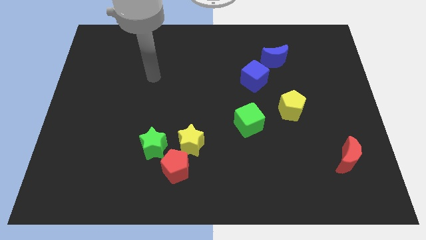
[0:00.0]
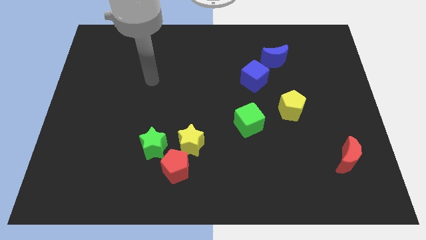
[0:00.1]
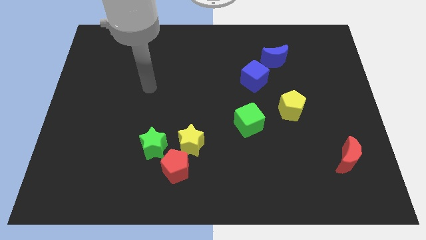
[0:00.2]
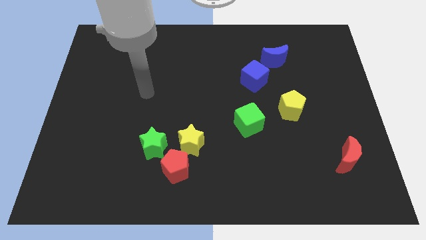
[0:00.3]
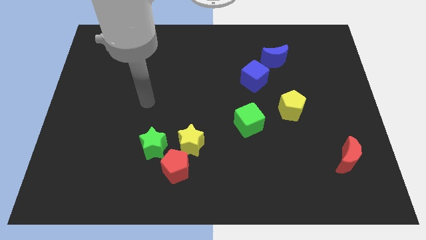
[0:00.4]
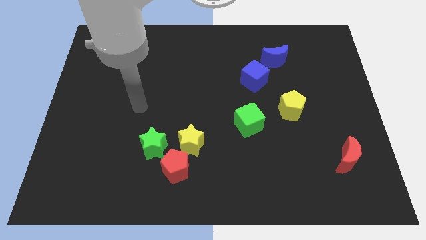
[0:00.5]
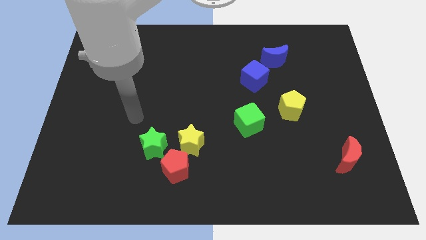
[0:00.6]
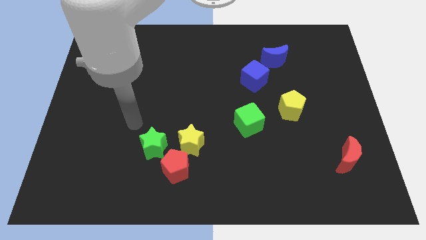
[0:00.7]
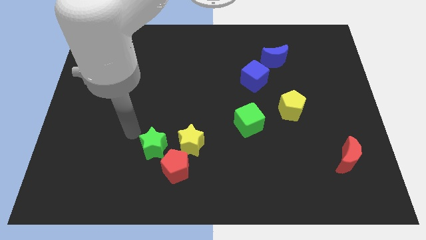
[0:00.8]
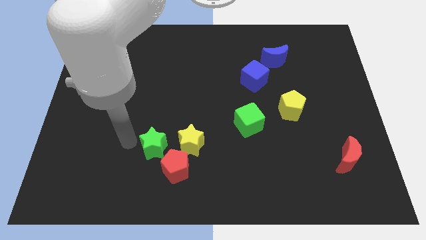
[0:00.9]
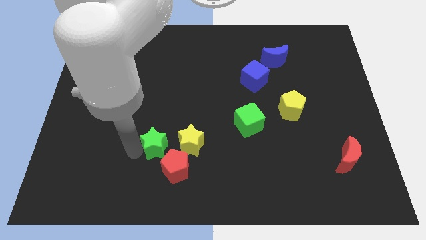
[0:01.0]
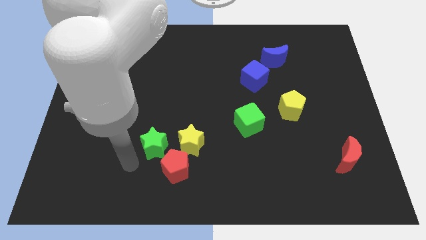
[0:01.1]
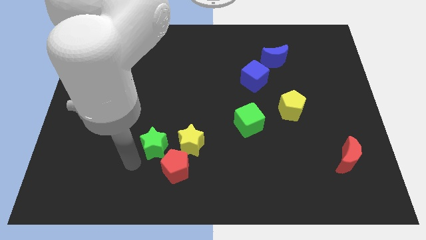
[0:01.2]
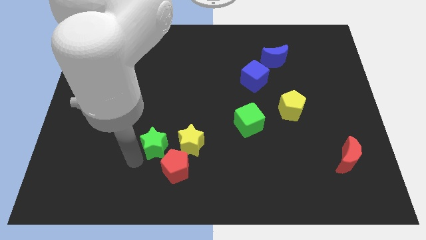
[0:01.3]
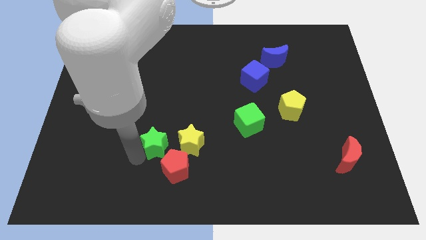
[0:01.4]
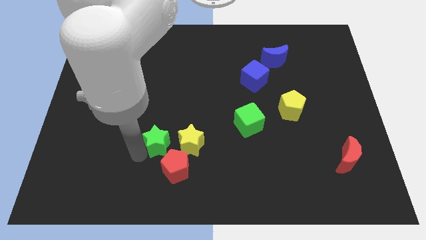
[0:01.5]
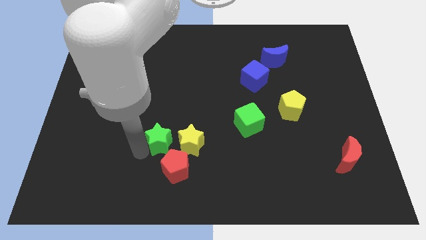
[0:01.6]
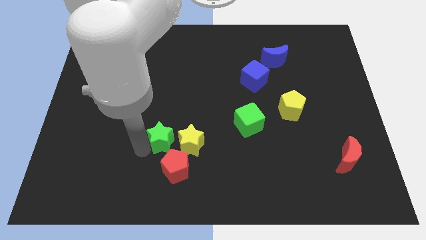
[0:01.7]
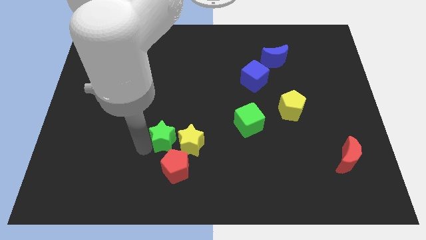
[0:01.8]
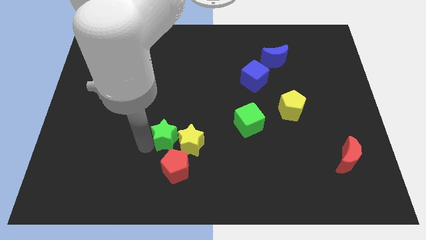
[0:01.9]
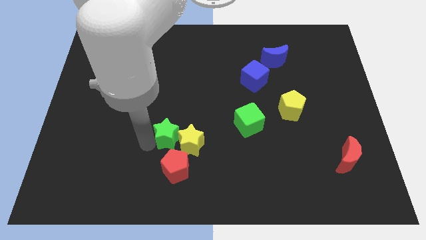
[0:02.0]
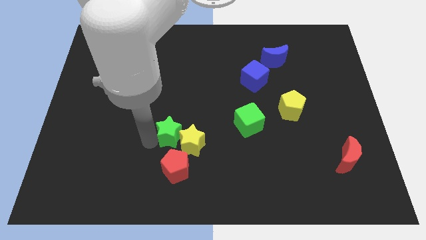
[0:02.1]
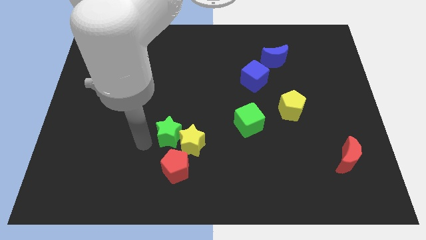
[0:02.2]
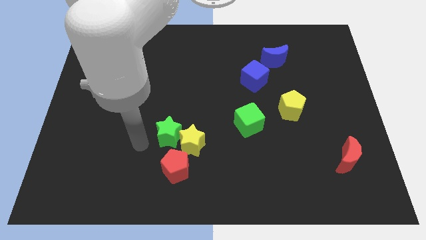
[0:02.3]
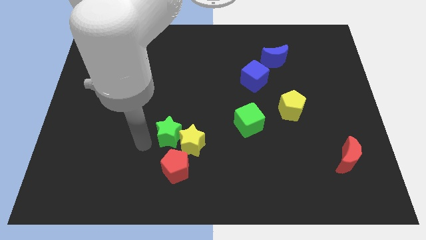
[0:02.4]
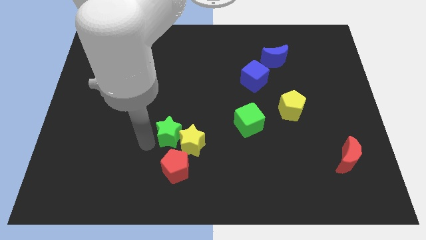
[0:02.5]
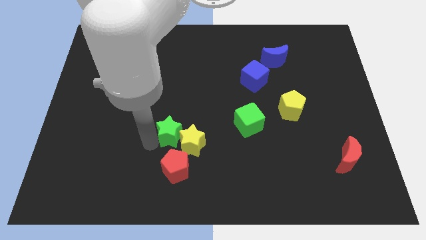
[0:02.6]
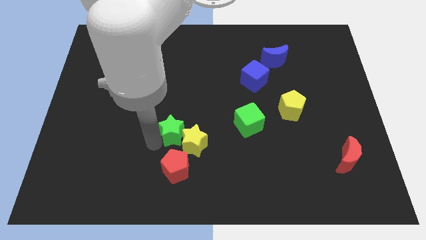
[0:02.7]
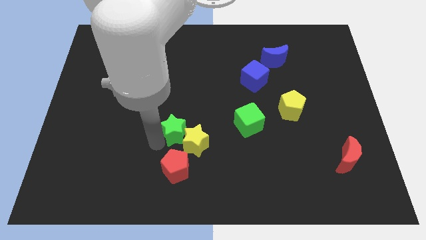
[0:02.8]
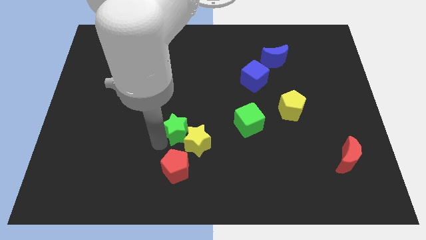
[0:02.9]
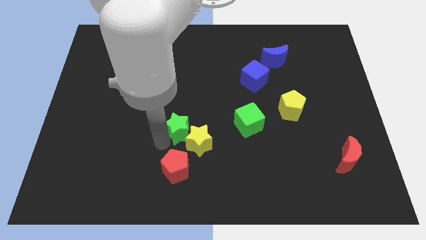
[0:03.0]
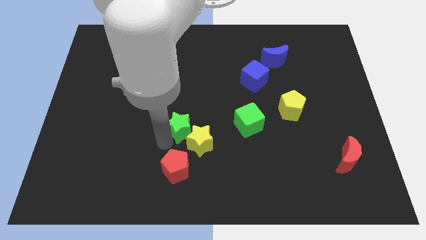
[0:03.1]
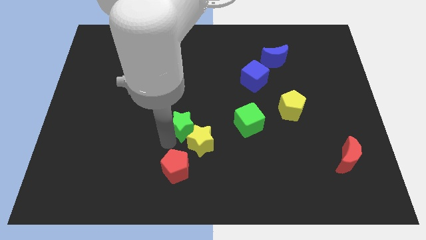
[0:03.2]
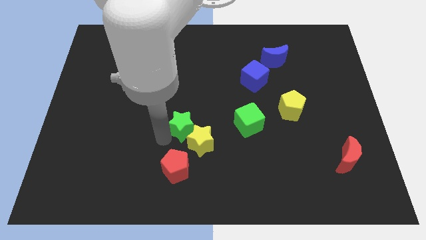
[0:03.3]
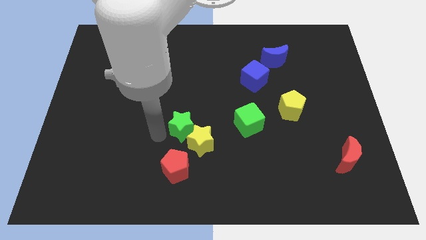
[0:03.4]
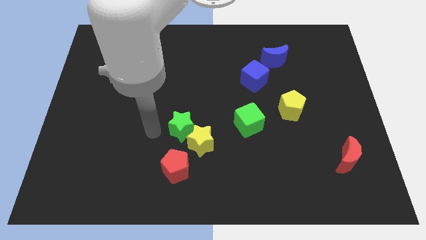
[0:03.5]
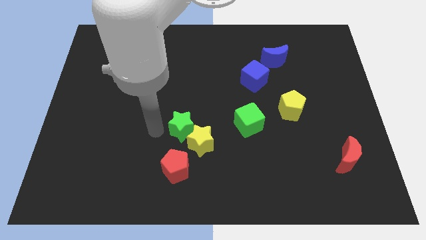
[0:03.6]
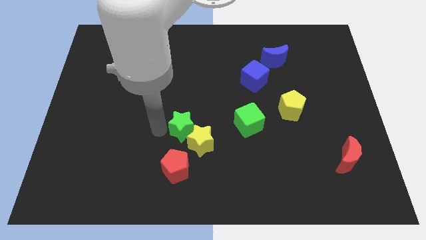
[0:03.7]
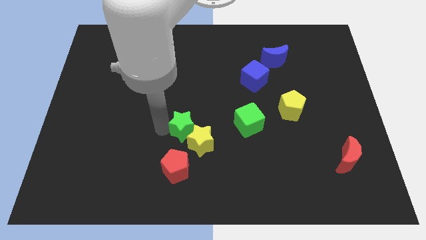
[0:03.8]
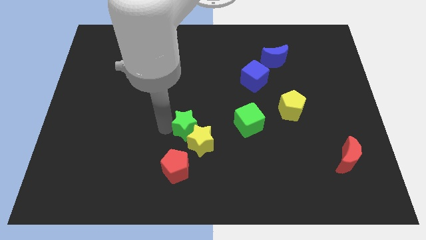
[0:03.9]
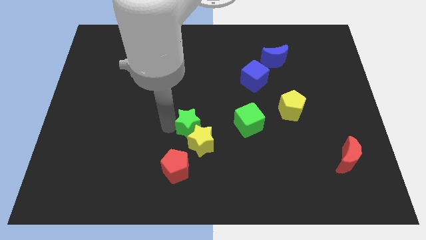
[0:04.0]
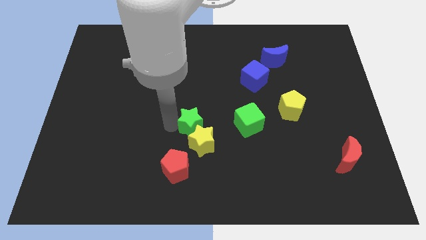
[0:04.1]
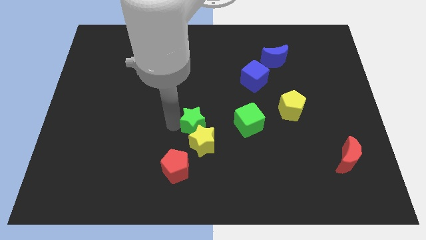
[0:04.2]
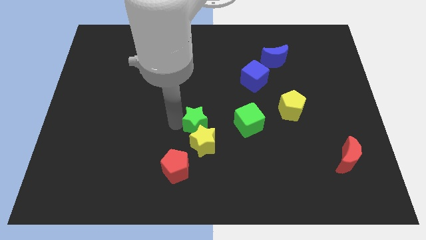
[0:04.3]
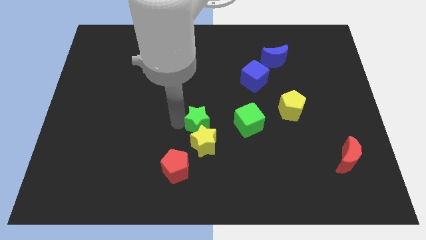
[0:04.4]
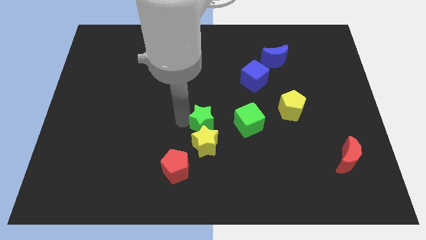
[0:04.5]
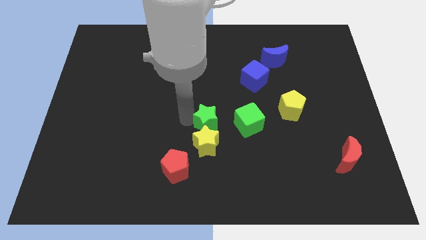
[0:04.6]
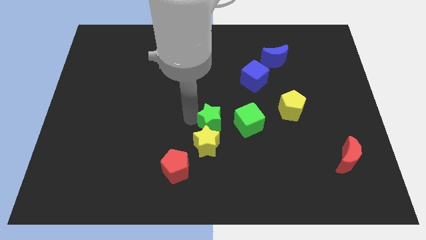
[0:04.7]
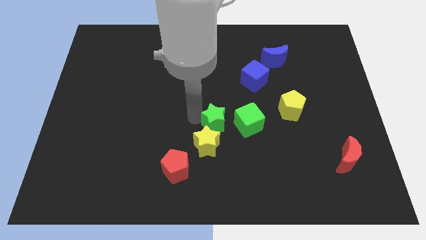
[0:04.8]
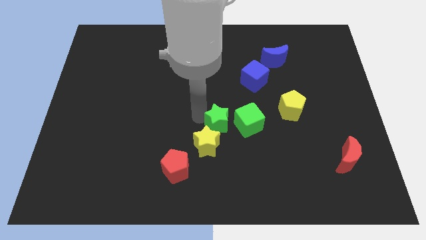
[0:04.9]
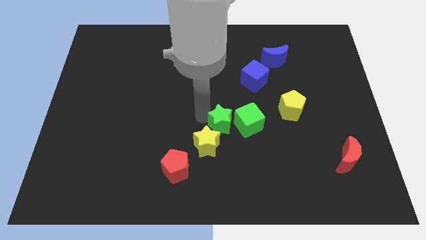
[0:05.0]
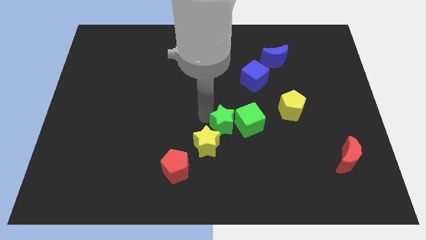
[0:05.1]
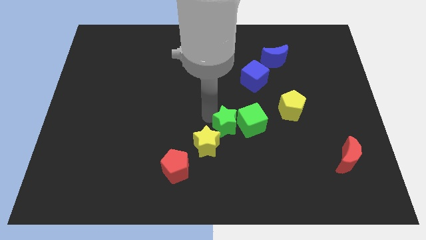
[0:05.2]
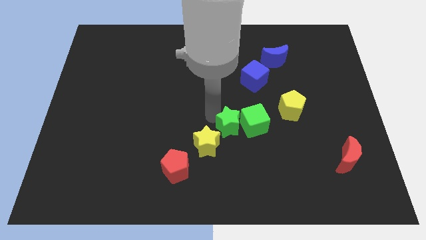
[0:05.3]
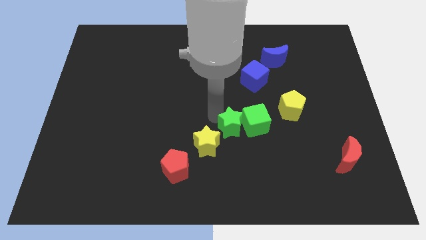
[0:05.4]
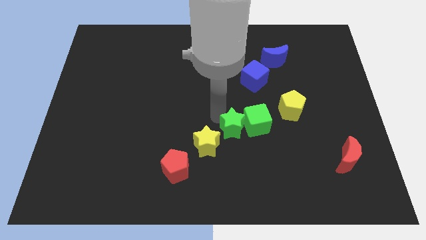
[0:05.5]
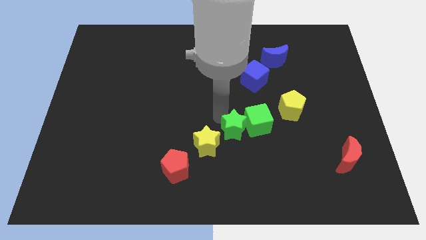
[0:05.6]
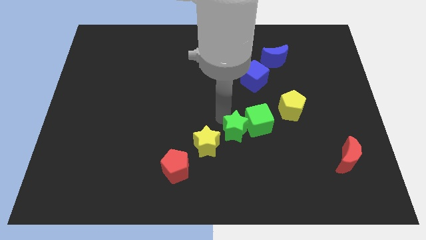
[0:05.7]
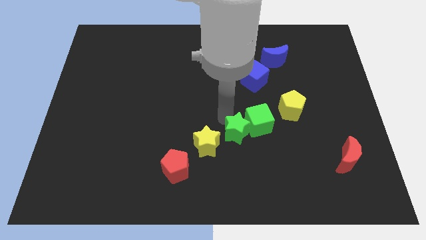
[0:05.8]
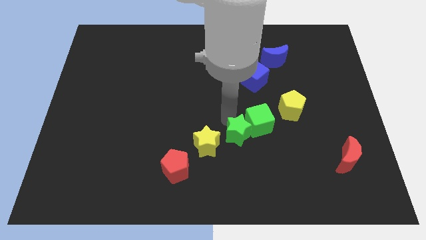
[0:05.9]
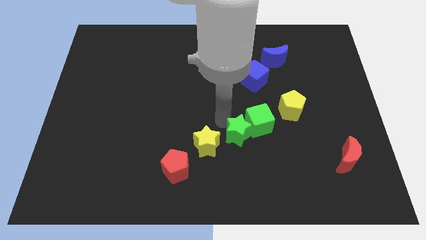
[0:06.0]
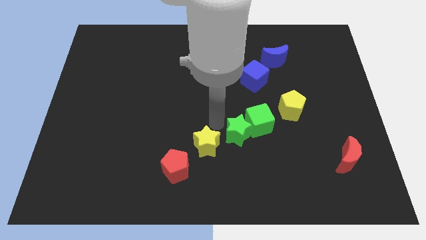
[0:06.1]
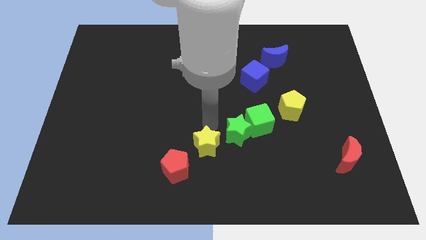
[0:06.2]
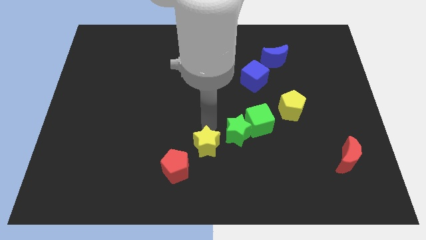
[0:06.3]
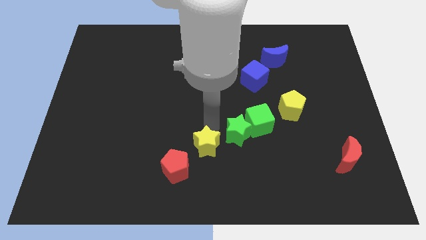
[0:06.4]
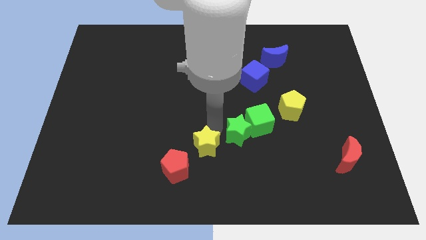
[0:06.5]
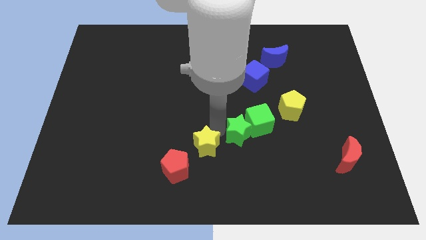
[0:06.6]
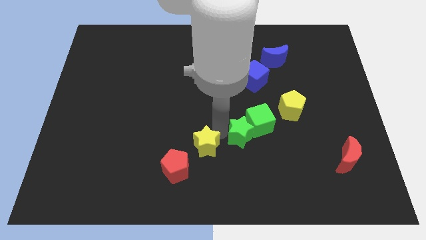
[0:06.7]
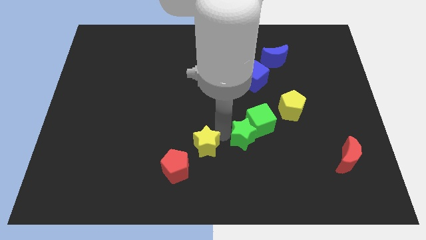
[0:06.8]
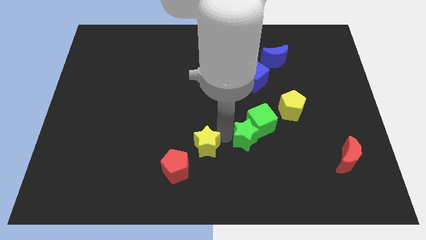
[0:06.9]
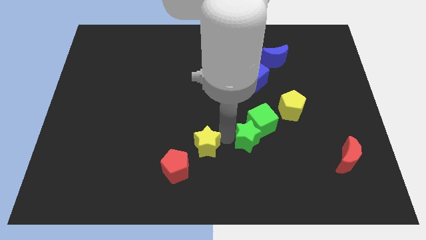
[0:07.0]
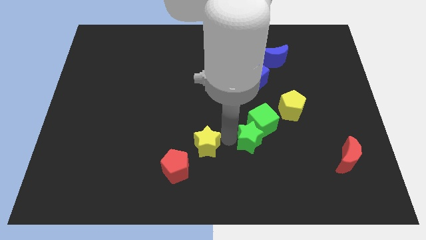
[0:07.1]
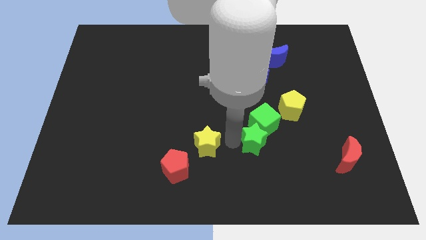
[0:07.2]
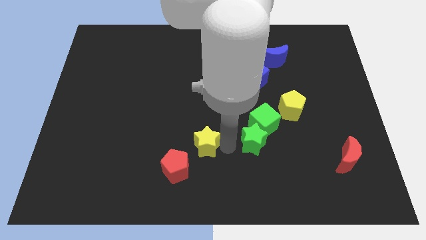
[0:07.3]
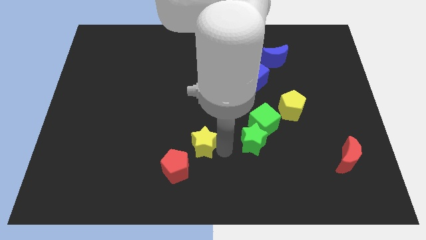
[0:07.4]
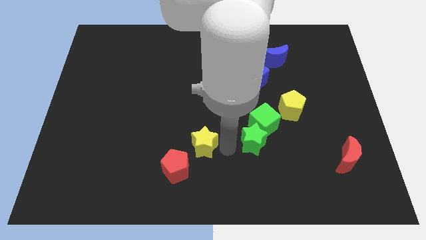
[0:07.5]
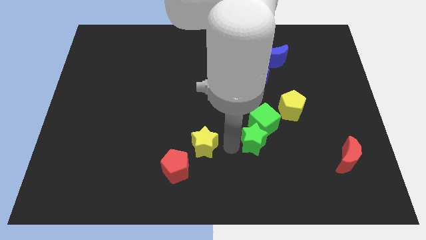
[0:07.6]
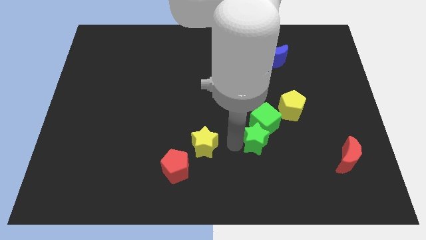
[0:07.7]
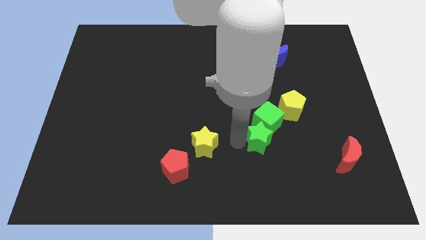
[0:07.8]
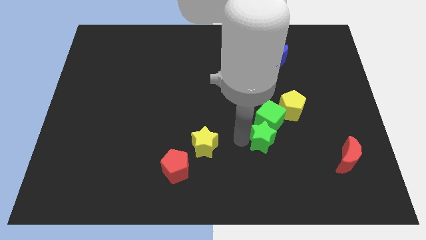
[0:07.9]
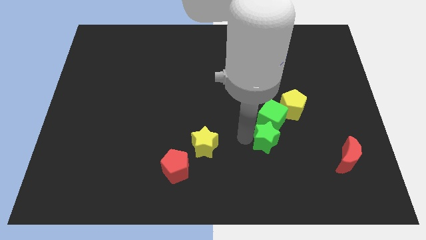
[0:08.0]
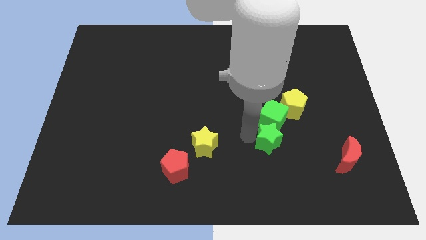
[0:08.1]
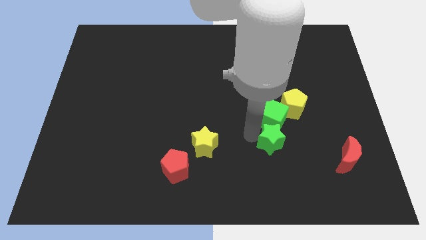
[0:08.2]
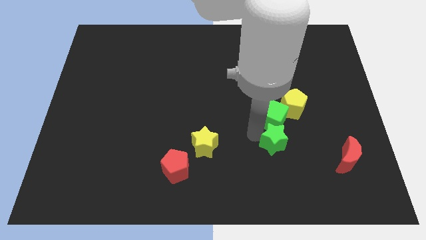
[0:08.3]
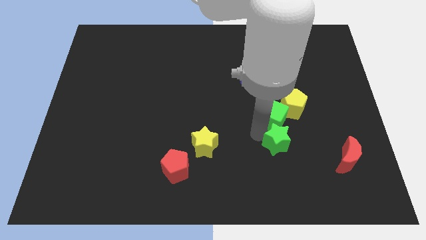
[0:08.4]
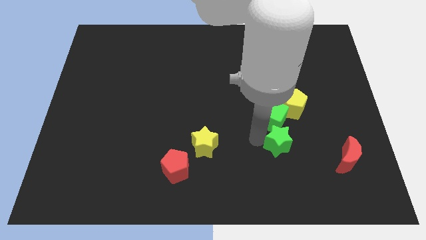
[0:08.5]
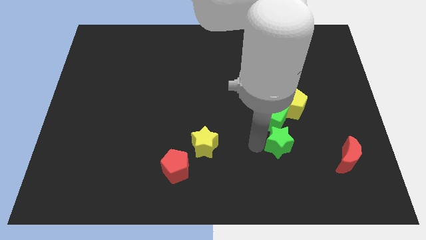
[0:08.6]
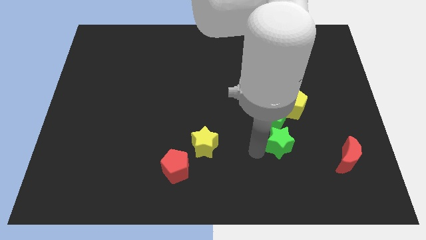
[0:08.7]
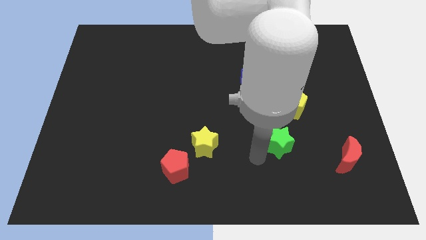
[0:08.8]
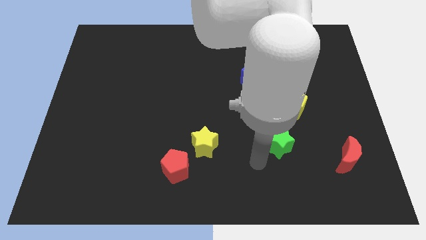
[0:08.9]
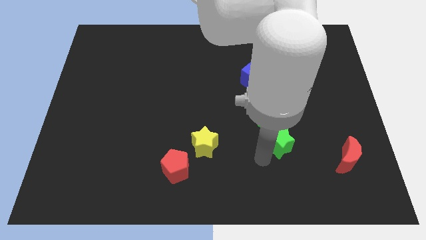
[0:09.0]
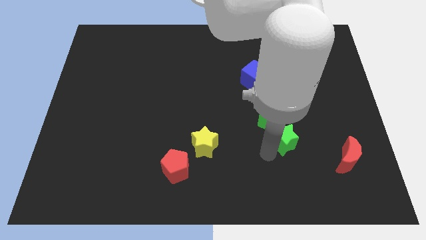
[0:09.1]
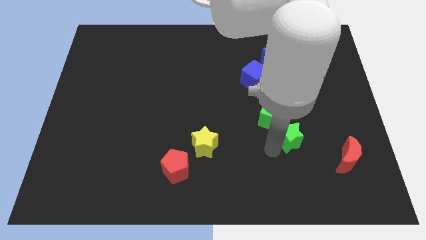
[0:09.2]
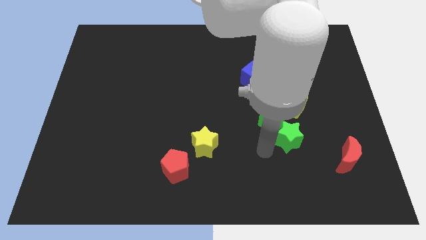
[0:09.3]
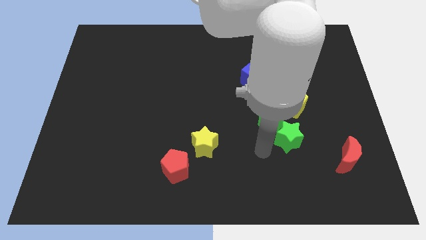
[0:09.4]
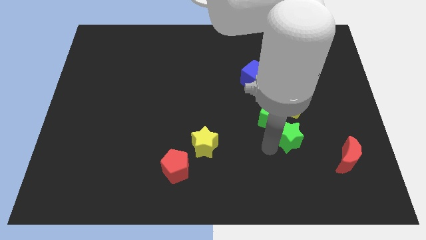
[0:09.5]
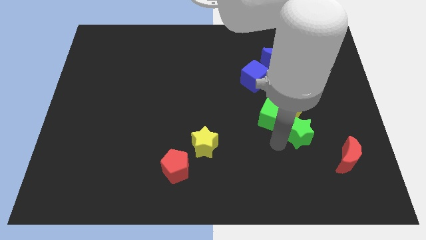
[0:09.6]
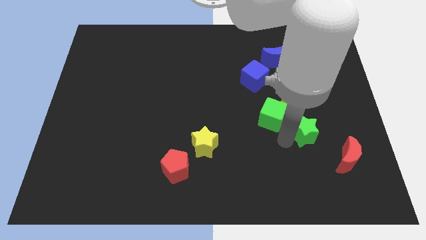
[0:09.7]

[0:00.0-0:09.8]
push the green star to the bottom right side of the yellow pentagon
